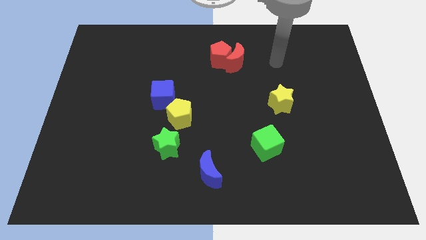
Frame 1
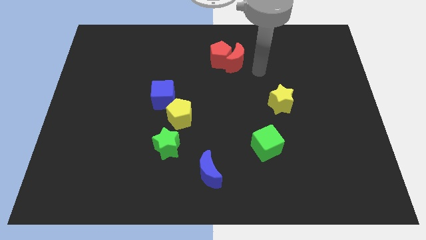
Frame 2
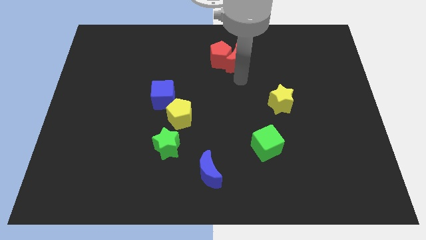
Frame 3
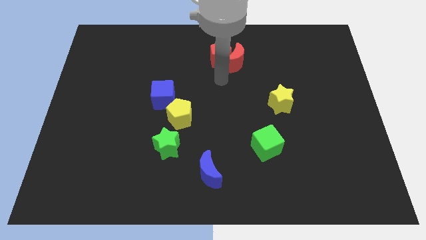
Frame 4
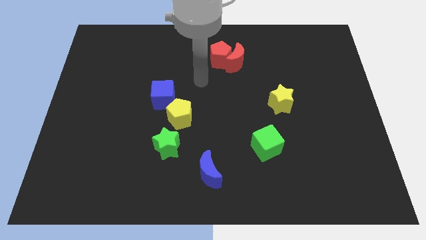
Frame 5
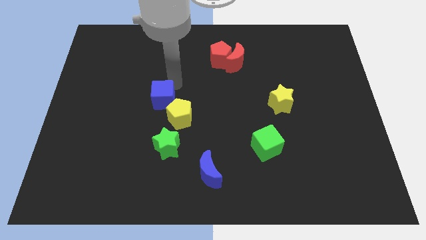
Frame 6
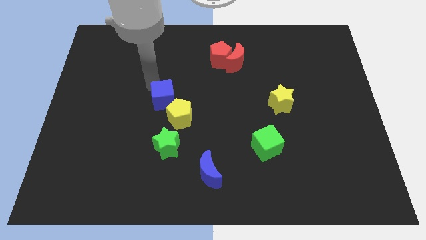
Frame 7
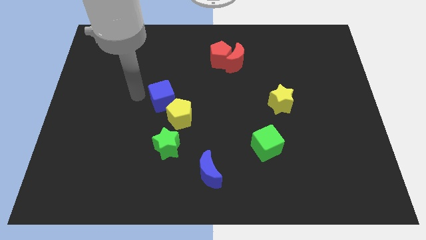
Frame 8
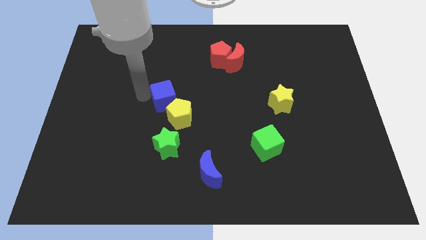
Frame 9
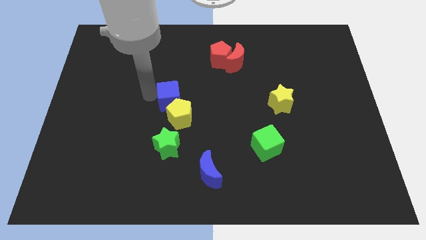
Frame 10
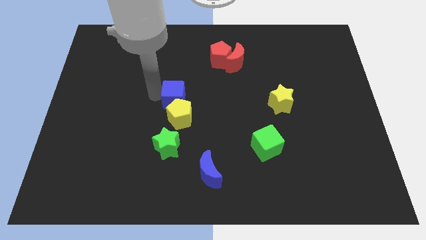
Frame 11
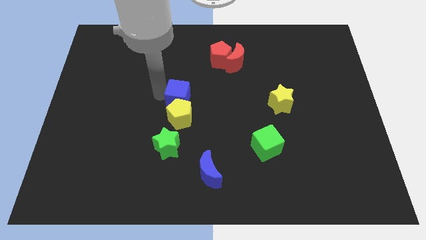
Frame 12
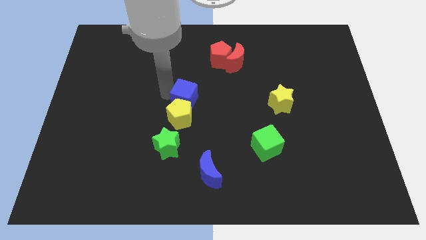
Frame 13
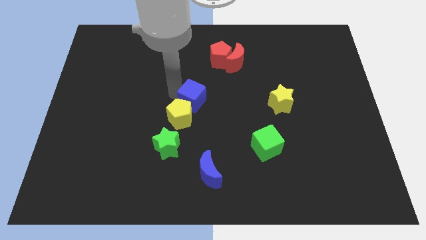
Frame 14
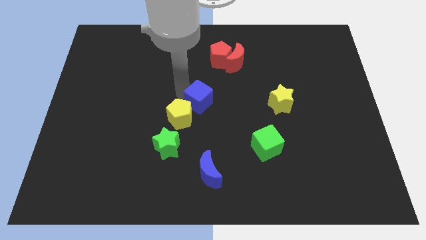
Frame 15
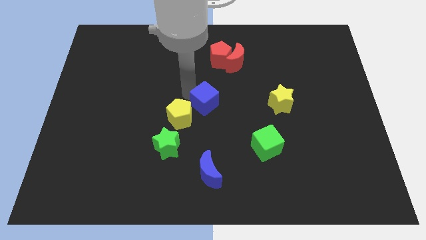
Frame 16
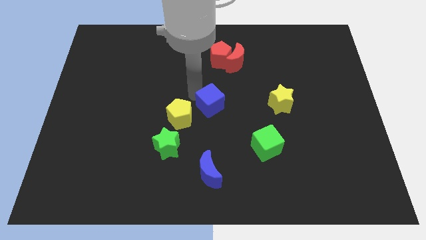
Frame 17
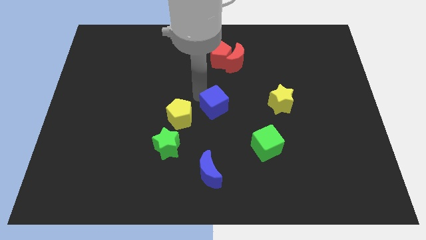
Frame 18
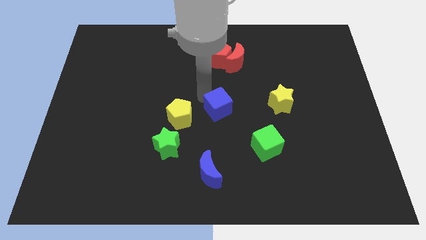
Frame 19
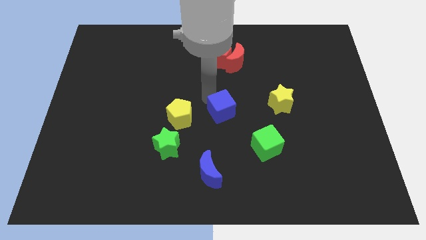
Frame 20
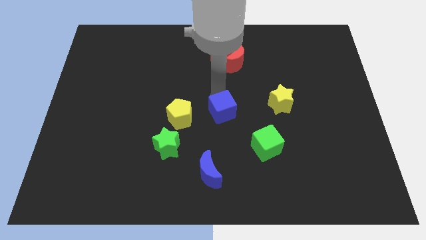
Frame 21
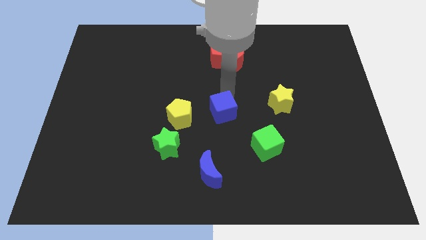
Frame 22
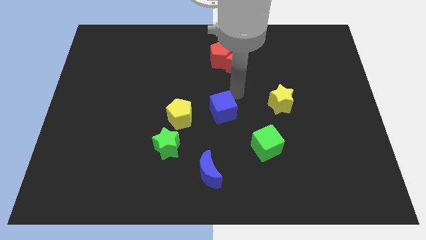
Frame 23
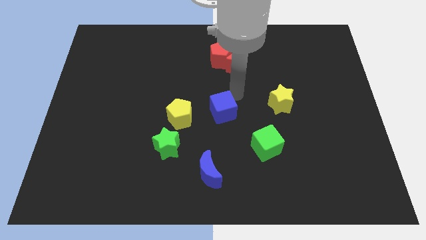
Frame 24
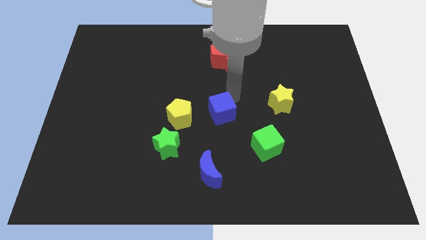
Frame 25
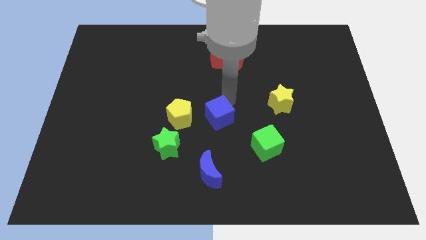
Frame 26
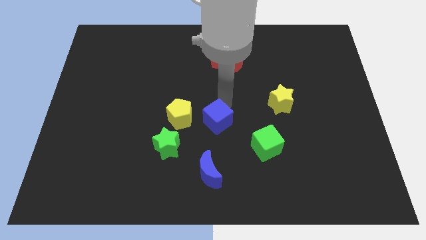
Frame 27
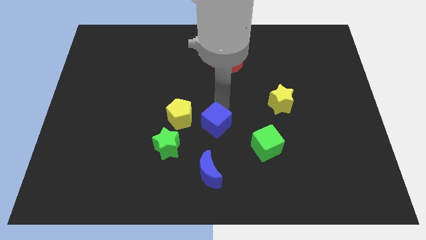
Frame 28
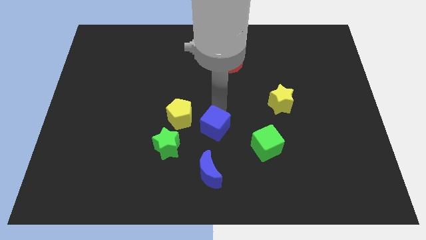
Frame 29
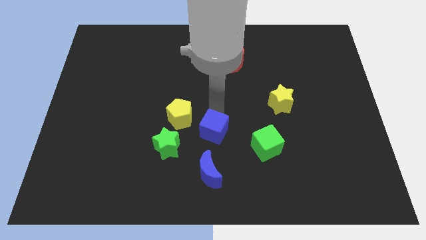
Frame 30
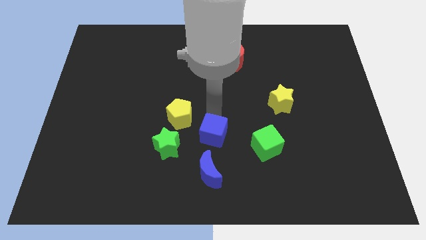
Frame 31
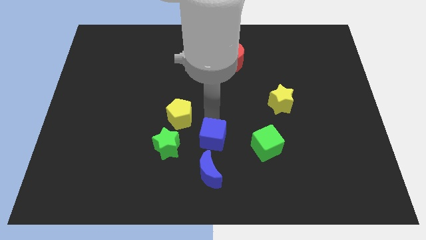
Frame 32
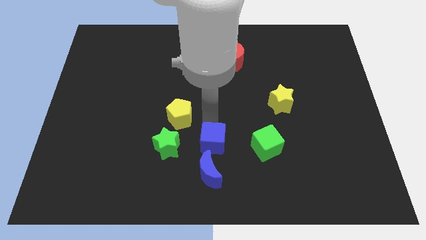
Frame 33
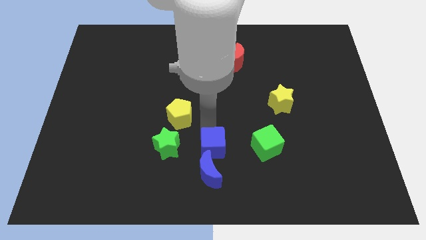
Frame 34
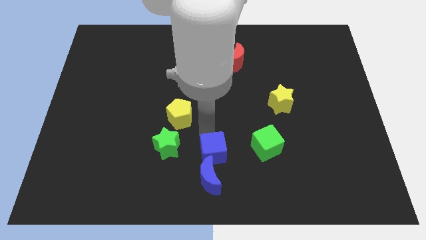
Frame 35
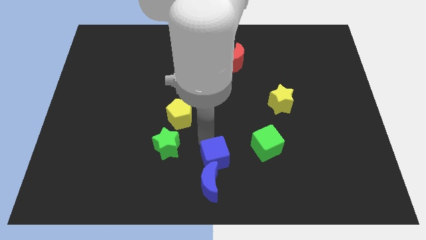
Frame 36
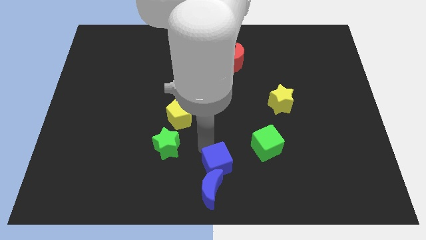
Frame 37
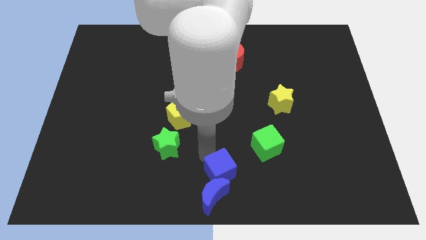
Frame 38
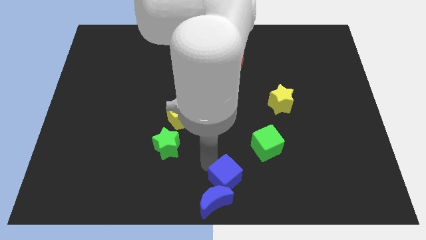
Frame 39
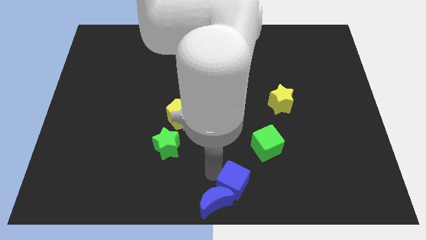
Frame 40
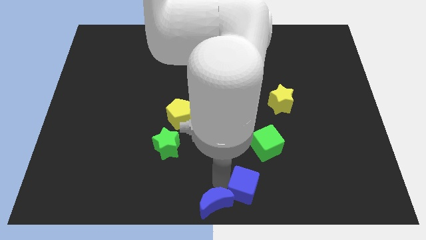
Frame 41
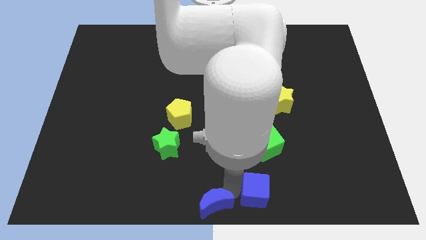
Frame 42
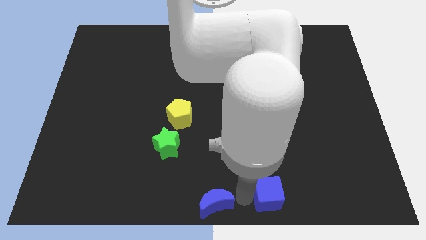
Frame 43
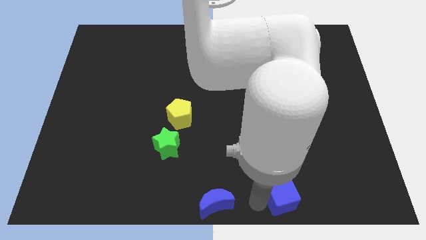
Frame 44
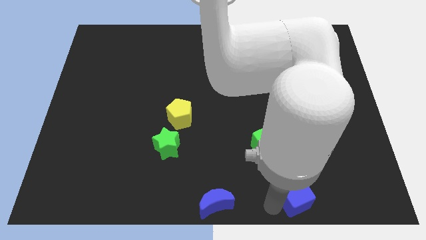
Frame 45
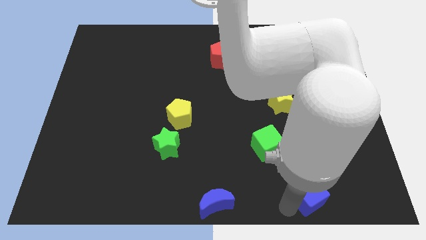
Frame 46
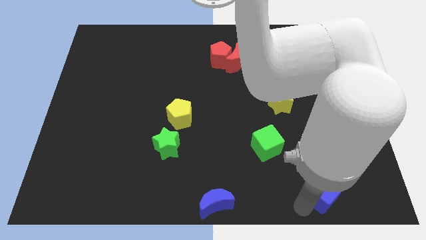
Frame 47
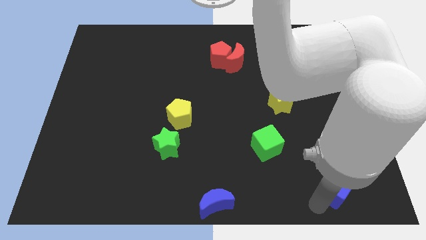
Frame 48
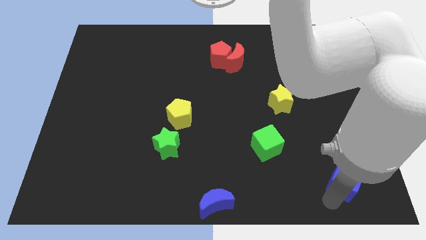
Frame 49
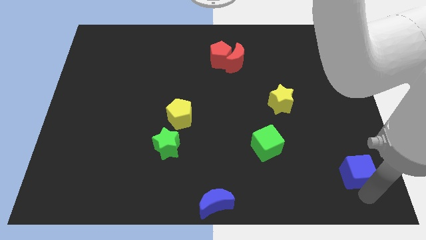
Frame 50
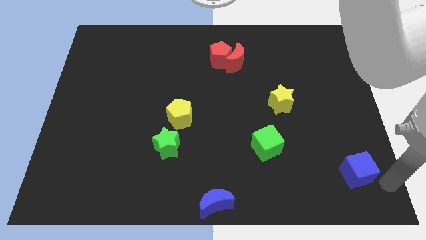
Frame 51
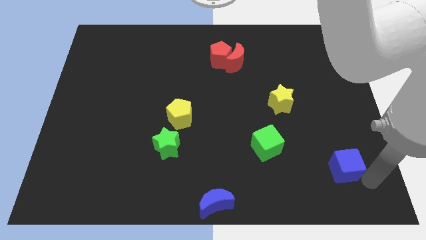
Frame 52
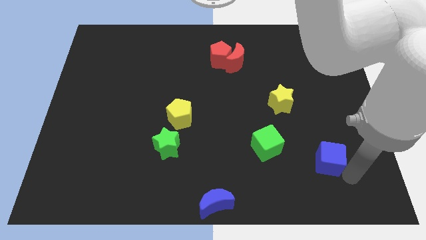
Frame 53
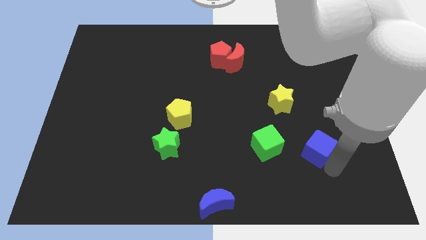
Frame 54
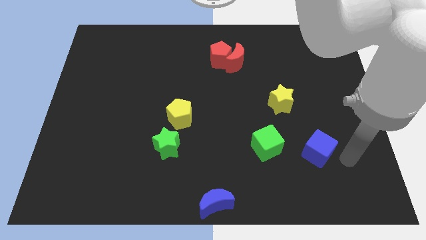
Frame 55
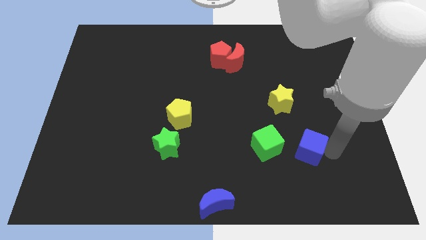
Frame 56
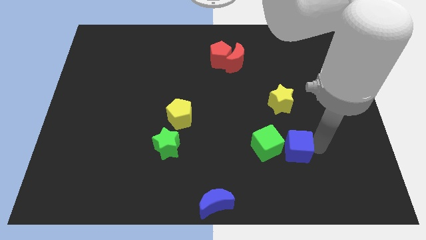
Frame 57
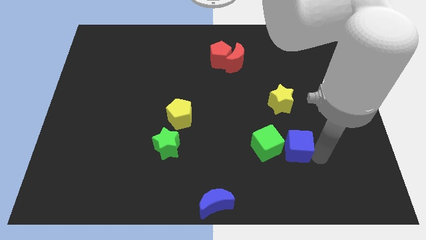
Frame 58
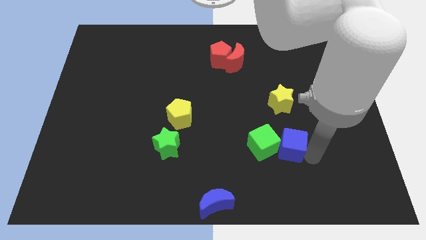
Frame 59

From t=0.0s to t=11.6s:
slide the blue cube to the green cube

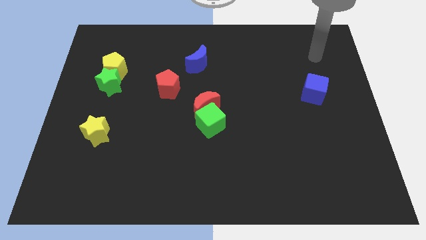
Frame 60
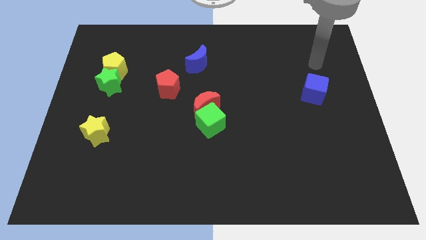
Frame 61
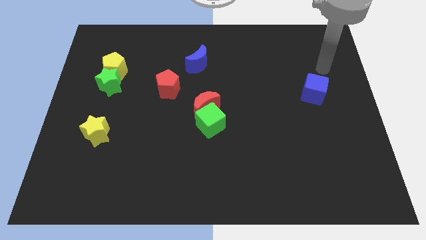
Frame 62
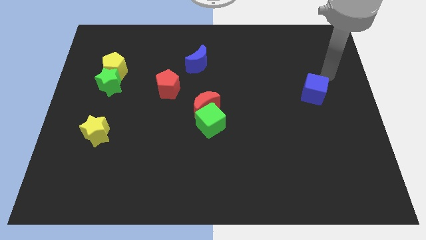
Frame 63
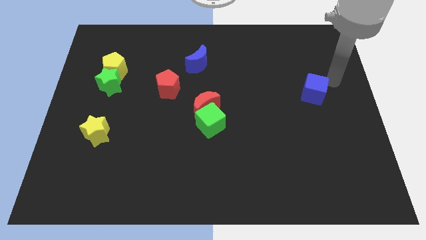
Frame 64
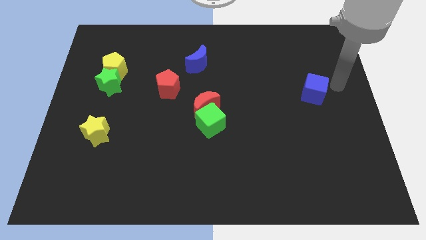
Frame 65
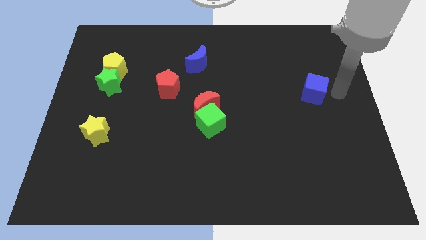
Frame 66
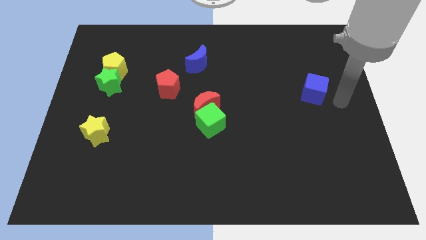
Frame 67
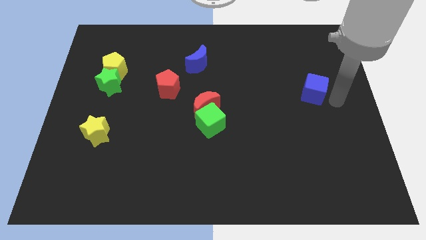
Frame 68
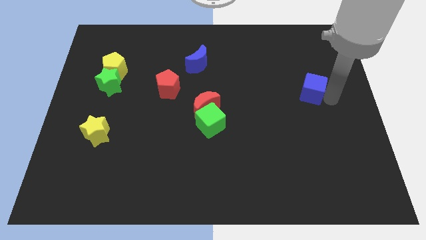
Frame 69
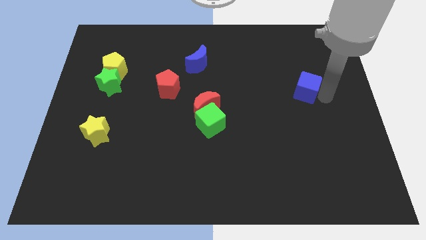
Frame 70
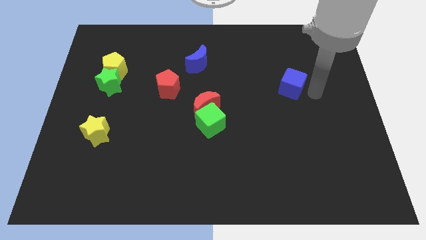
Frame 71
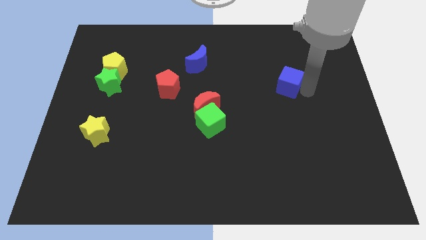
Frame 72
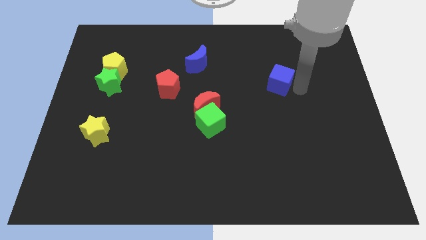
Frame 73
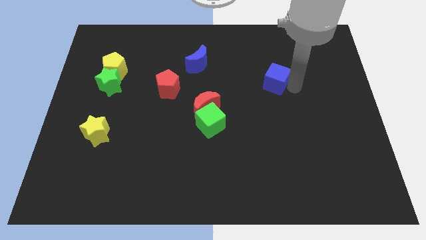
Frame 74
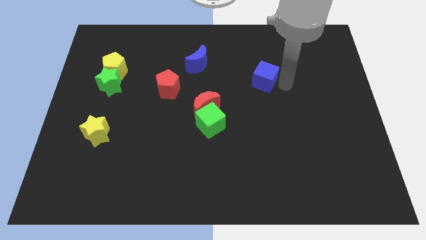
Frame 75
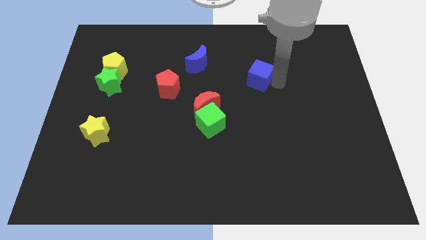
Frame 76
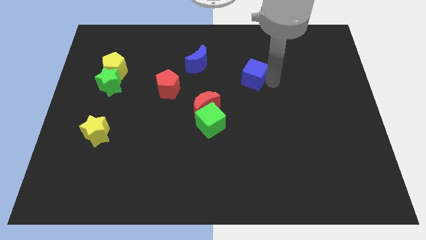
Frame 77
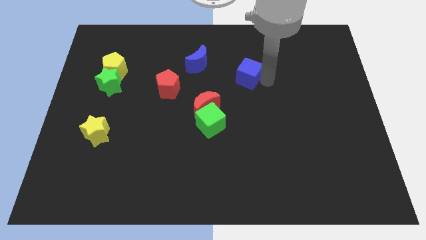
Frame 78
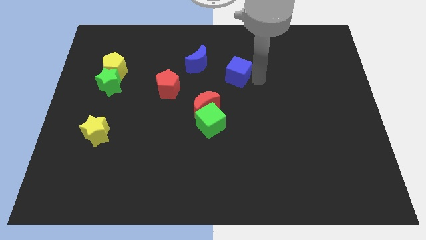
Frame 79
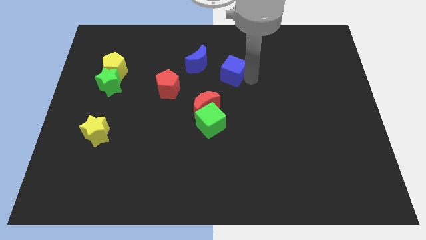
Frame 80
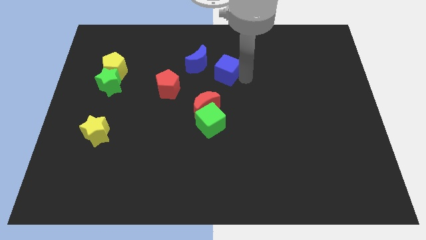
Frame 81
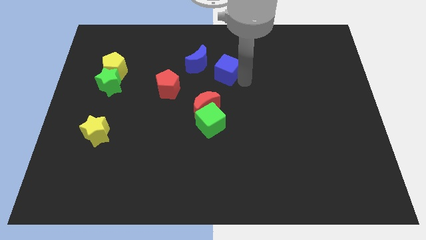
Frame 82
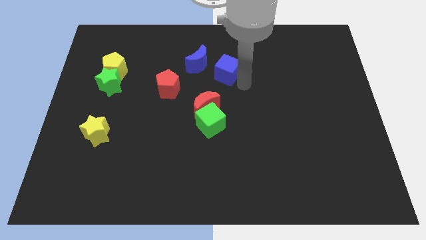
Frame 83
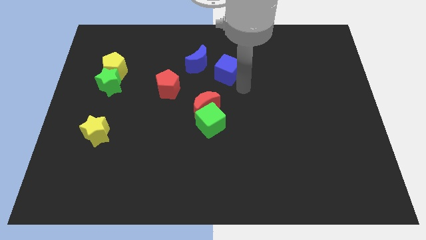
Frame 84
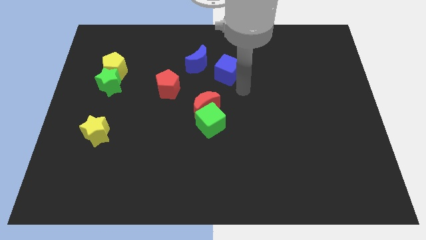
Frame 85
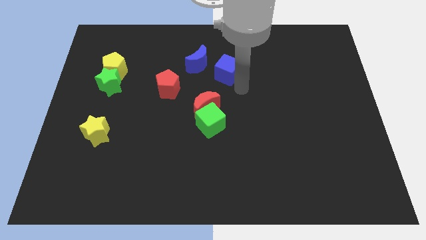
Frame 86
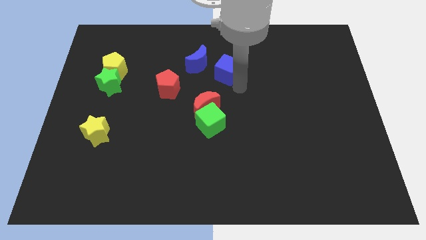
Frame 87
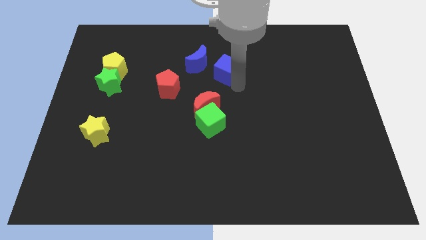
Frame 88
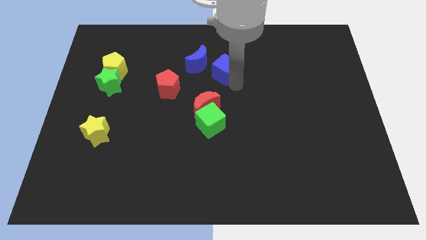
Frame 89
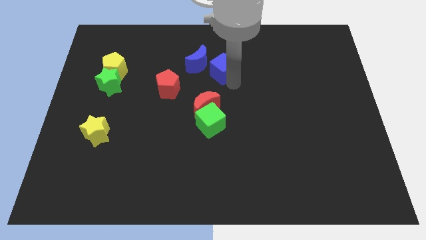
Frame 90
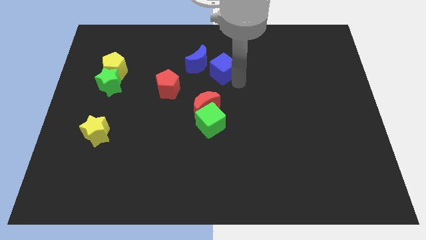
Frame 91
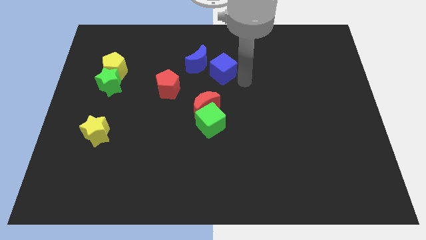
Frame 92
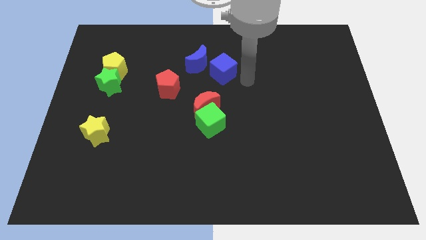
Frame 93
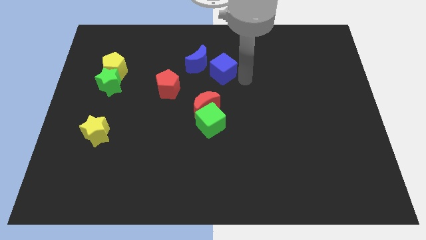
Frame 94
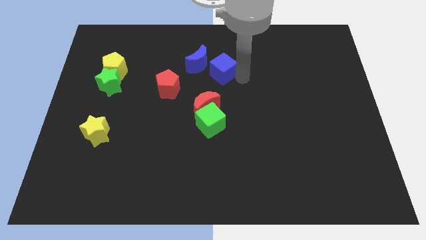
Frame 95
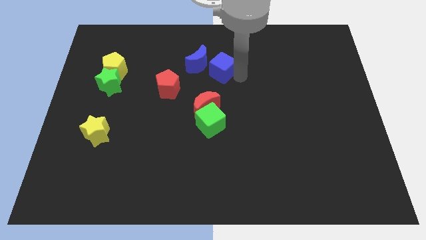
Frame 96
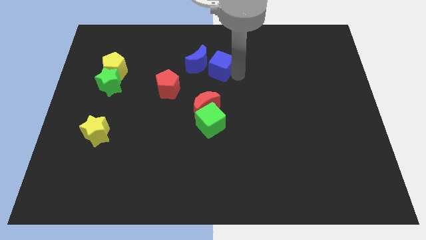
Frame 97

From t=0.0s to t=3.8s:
slide the blue cube next to the blue moon
